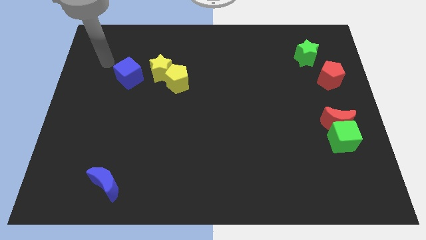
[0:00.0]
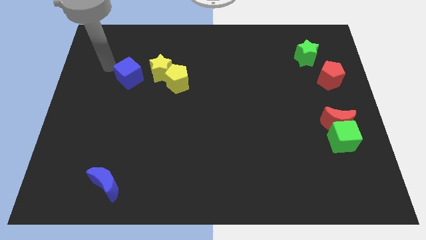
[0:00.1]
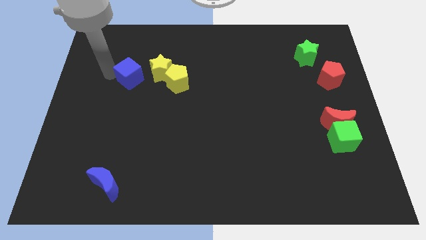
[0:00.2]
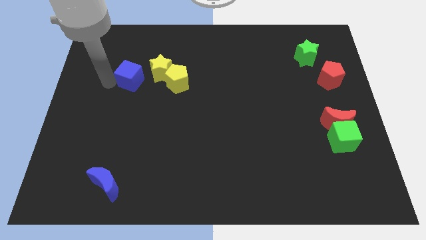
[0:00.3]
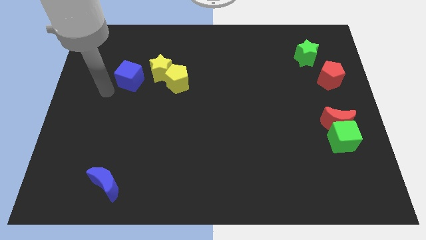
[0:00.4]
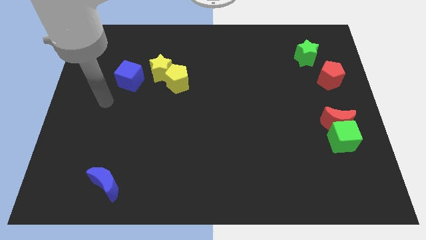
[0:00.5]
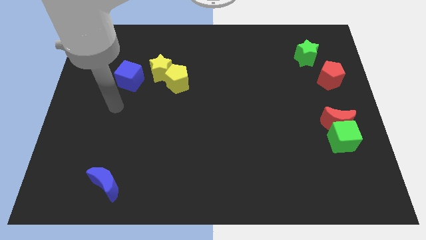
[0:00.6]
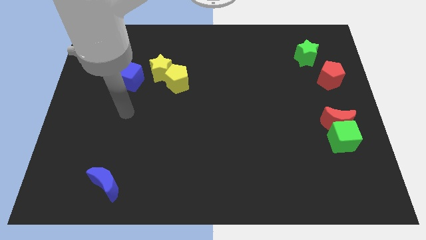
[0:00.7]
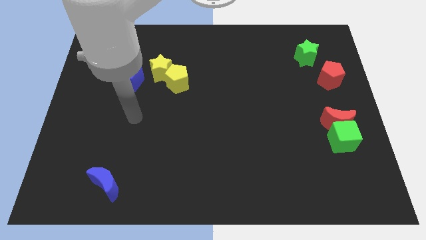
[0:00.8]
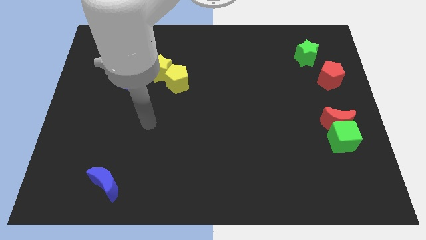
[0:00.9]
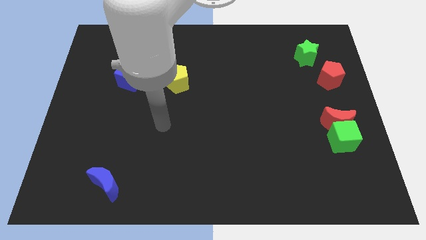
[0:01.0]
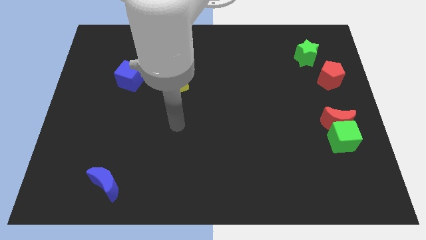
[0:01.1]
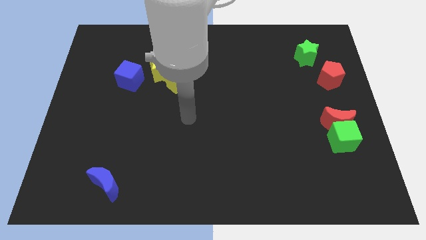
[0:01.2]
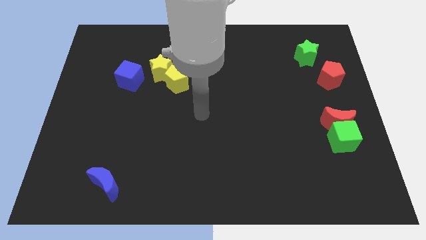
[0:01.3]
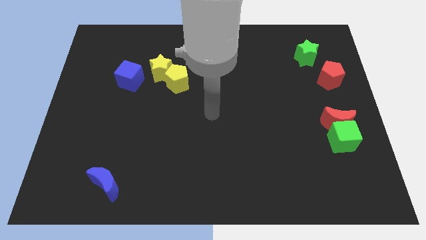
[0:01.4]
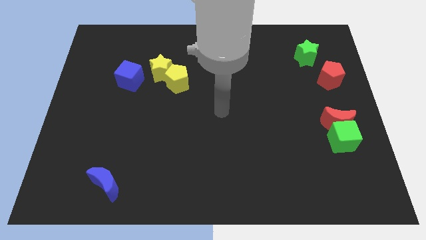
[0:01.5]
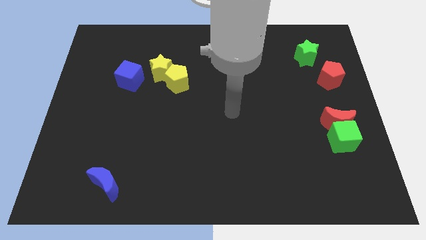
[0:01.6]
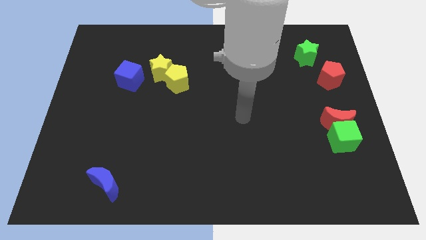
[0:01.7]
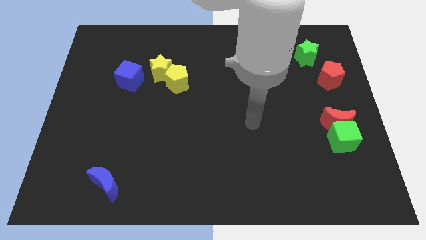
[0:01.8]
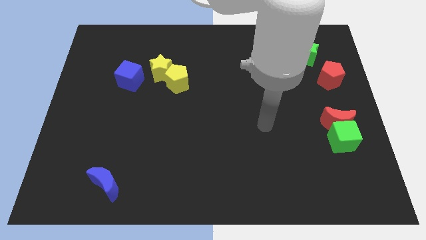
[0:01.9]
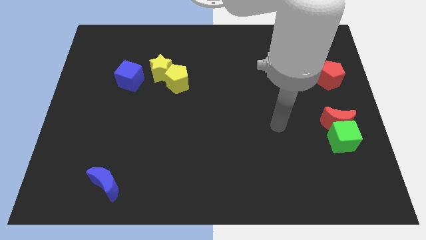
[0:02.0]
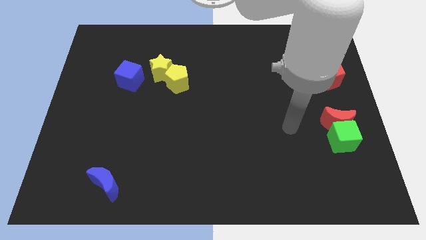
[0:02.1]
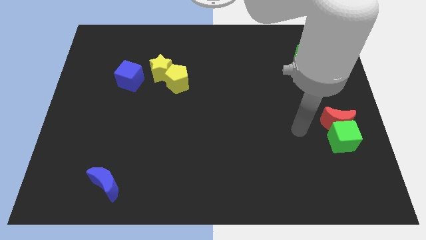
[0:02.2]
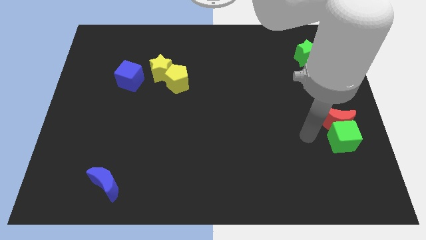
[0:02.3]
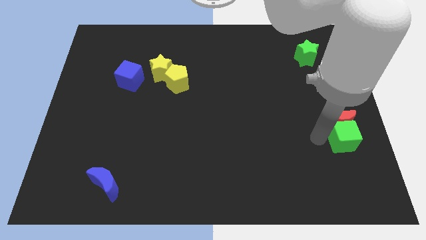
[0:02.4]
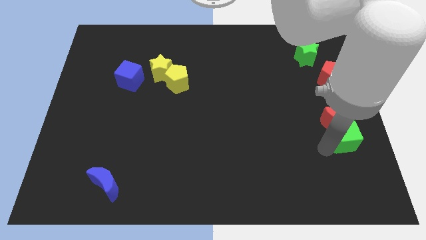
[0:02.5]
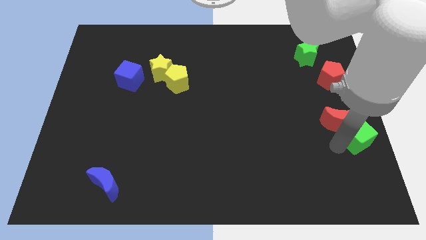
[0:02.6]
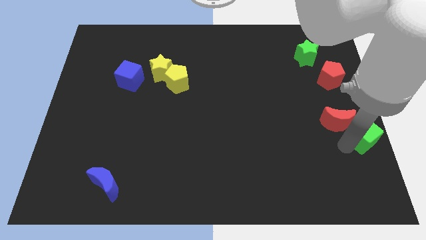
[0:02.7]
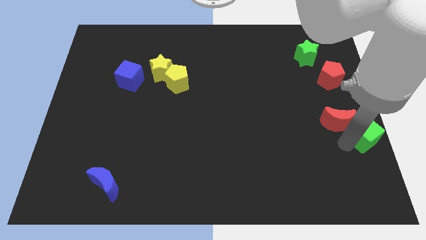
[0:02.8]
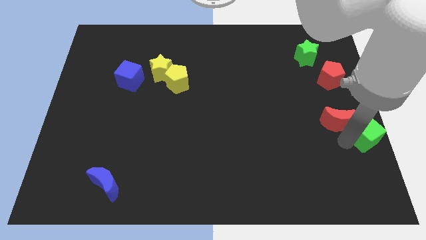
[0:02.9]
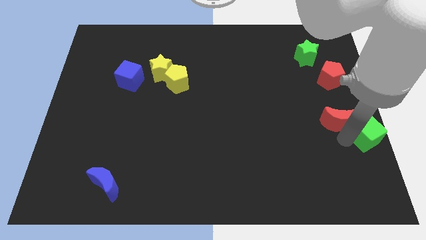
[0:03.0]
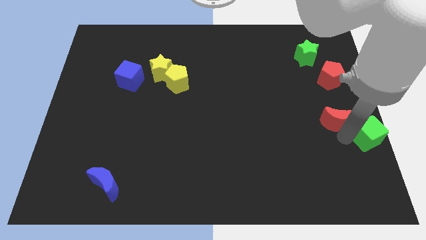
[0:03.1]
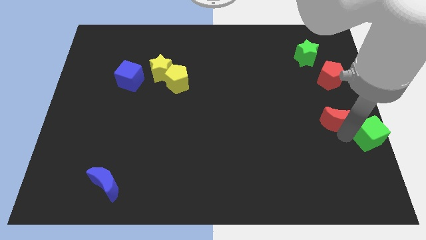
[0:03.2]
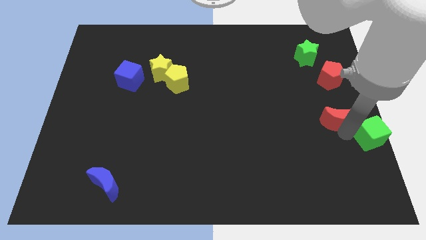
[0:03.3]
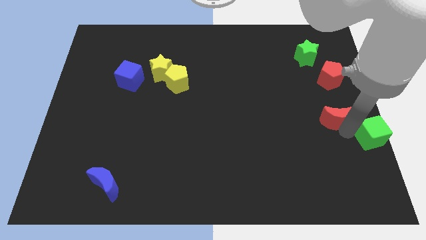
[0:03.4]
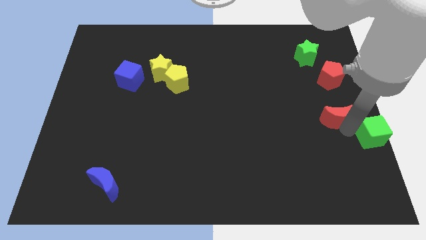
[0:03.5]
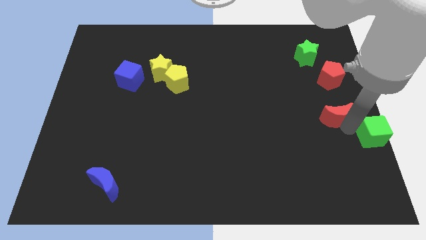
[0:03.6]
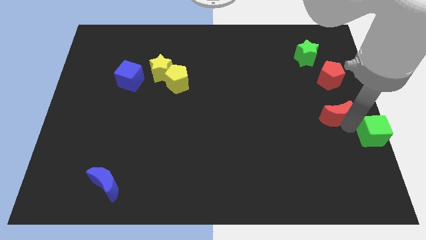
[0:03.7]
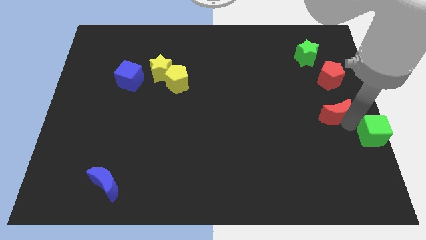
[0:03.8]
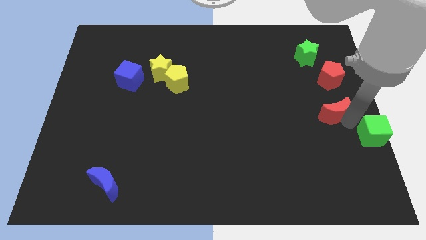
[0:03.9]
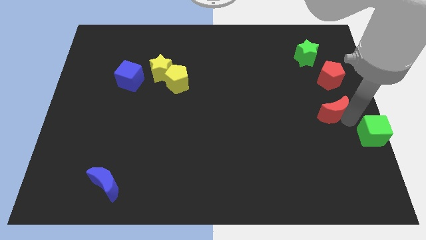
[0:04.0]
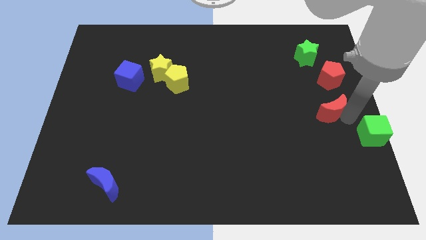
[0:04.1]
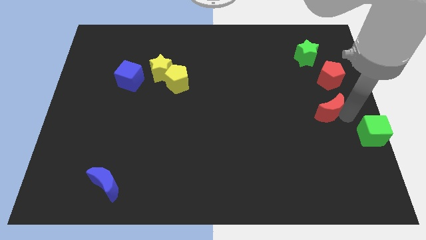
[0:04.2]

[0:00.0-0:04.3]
separate the red moon from the green cube

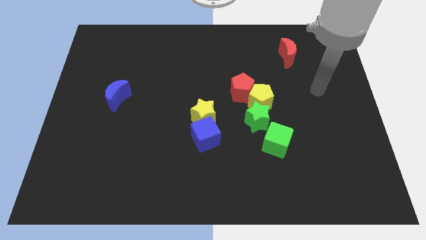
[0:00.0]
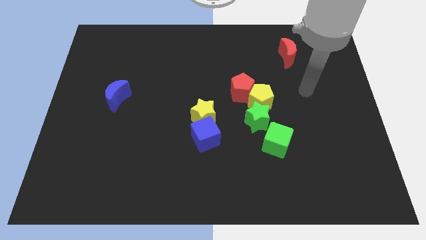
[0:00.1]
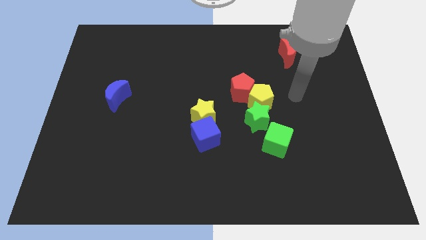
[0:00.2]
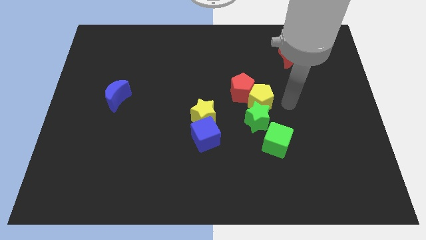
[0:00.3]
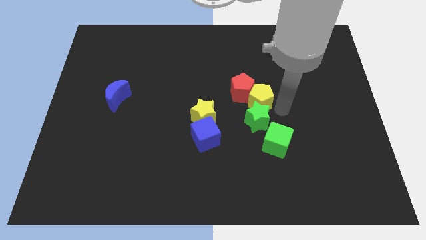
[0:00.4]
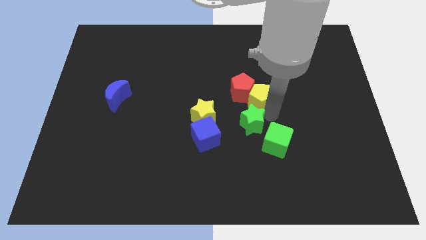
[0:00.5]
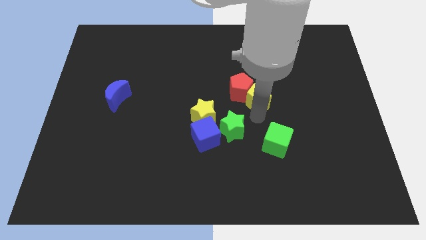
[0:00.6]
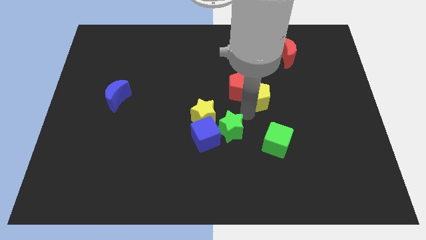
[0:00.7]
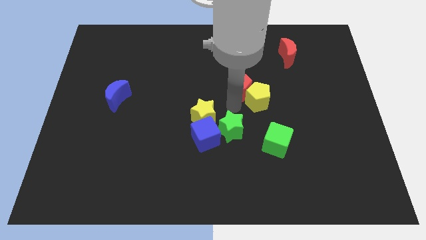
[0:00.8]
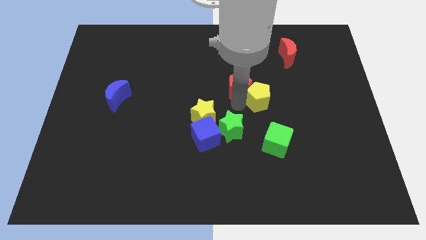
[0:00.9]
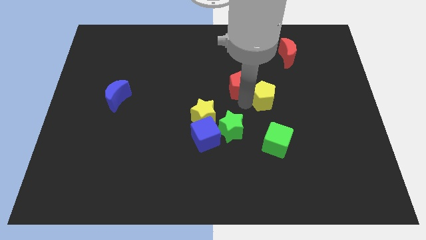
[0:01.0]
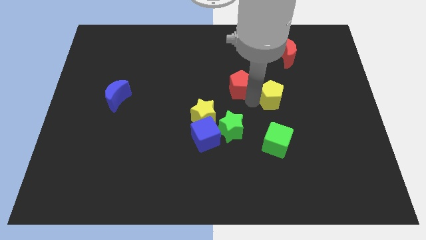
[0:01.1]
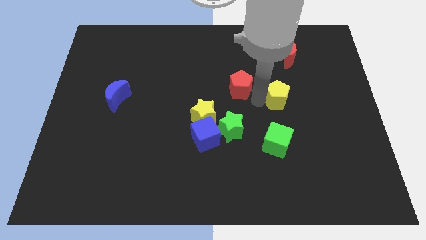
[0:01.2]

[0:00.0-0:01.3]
pull the yellow pentagon apart from the red pentagon and green star

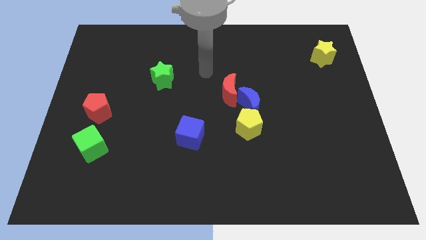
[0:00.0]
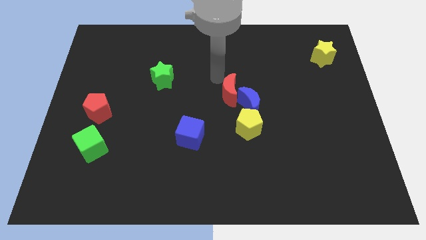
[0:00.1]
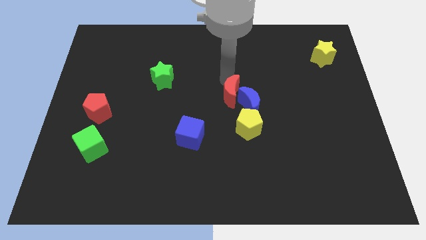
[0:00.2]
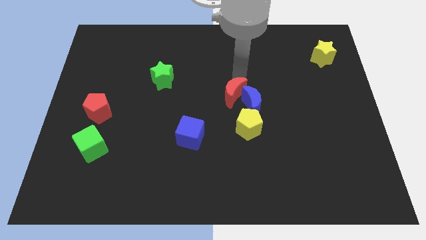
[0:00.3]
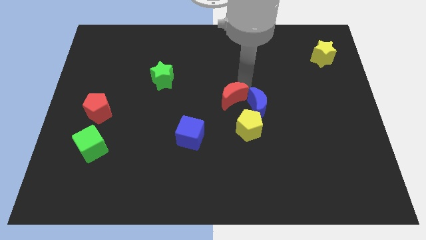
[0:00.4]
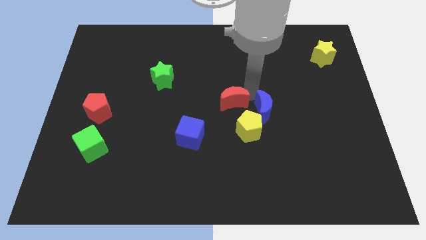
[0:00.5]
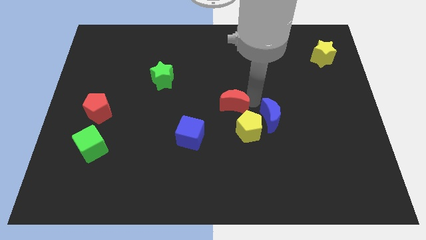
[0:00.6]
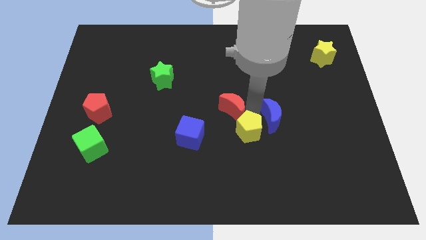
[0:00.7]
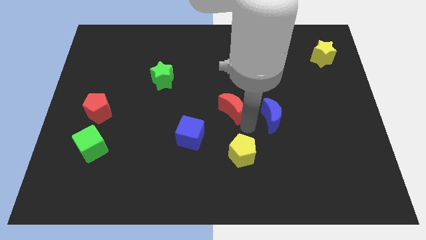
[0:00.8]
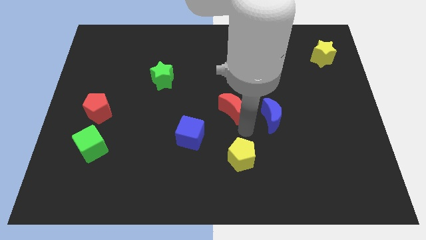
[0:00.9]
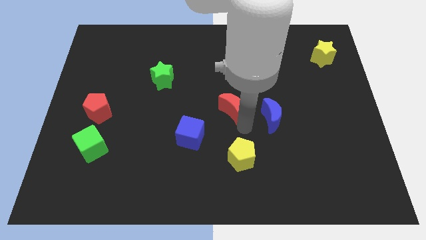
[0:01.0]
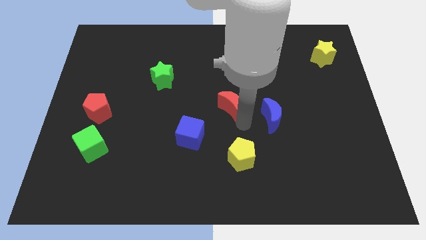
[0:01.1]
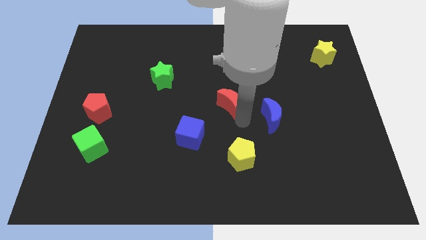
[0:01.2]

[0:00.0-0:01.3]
separate the red moon from the blue moon

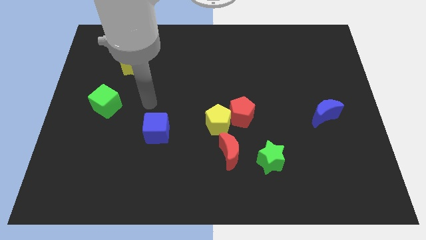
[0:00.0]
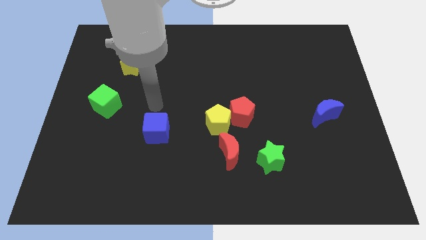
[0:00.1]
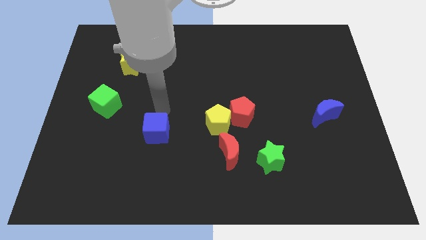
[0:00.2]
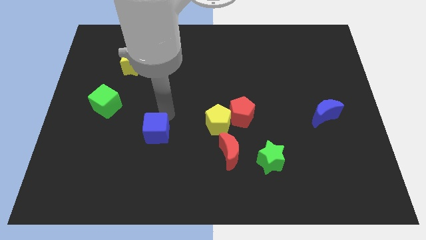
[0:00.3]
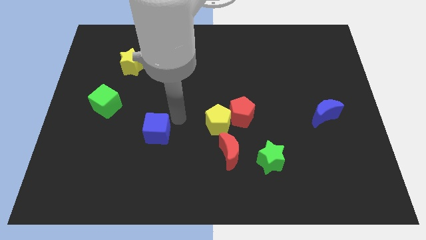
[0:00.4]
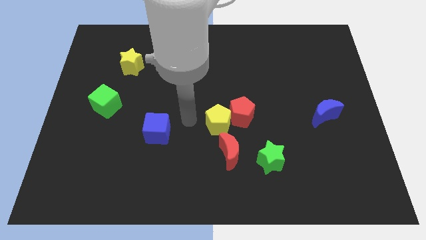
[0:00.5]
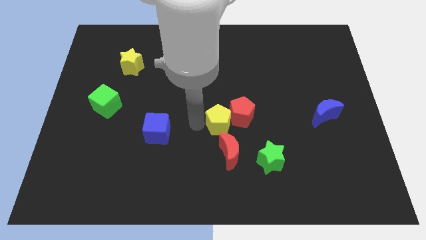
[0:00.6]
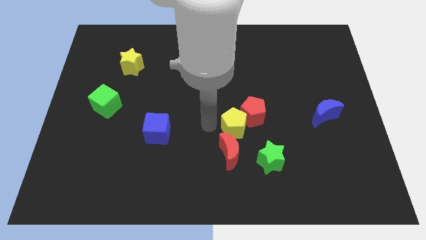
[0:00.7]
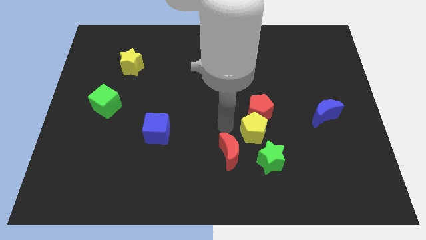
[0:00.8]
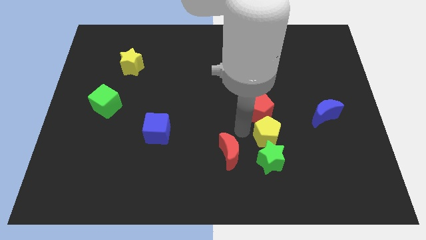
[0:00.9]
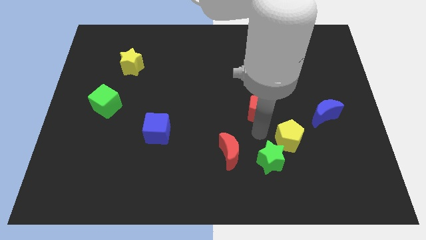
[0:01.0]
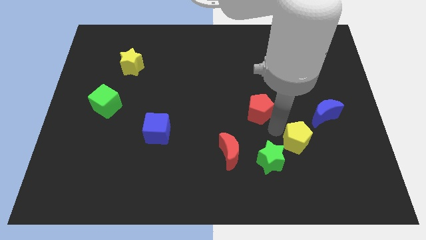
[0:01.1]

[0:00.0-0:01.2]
move the red pentagon away from the yellow pentagon

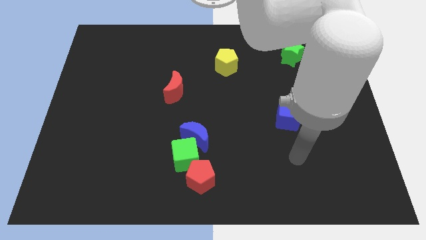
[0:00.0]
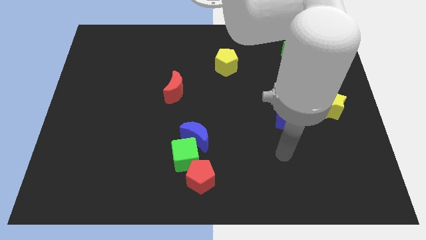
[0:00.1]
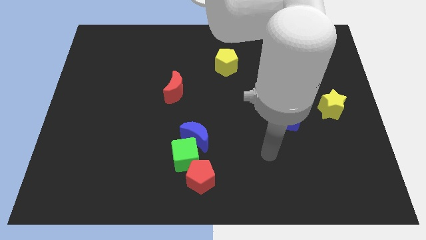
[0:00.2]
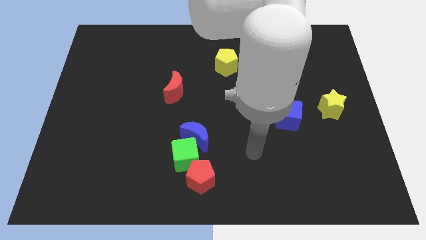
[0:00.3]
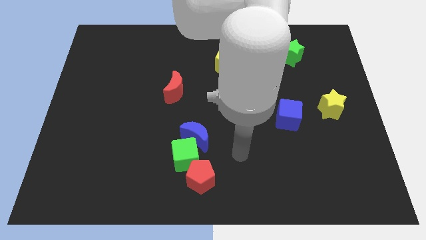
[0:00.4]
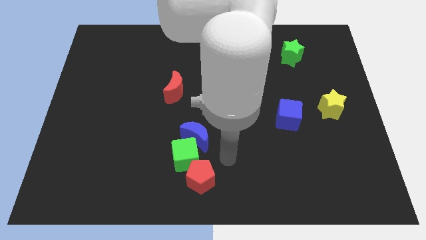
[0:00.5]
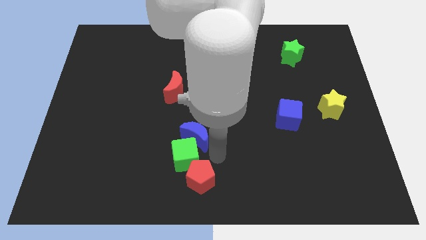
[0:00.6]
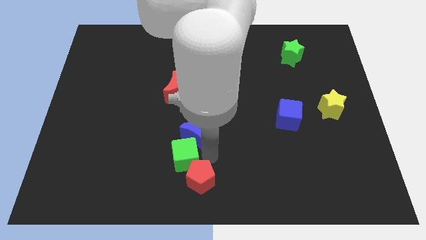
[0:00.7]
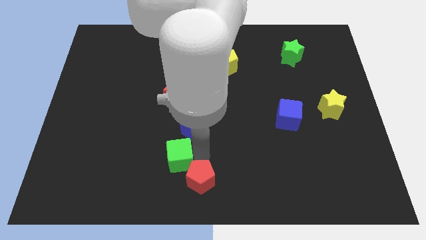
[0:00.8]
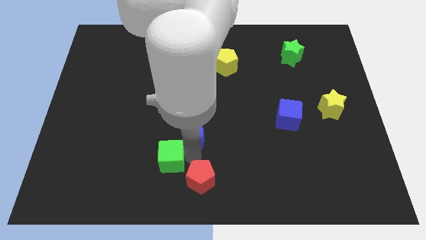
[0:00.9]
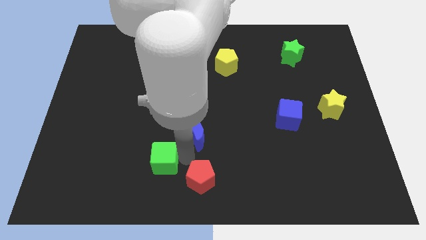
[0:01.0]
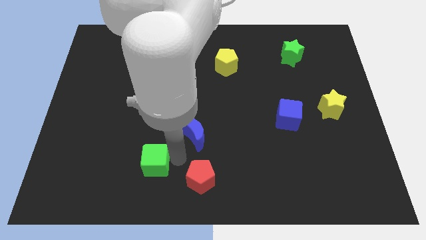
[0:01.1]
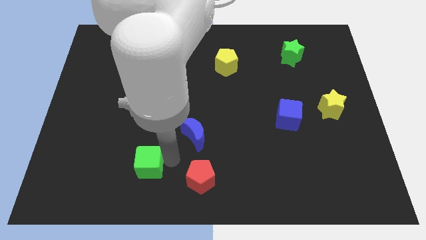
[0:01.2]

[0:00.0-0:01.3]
separate the green cube from the blue moon and red pentagon
